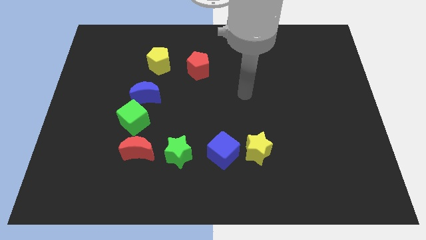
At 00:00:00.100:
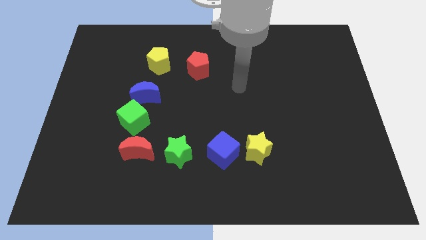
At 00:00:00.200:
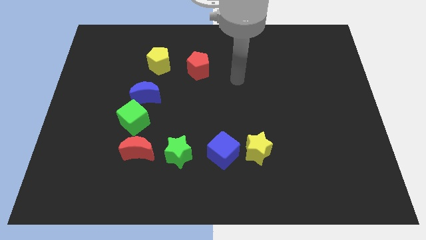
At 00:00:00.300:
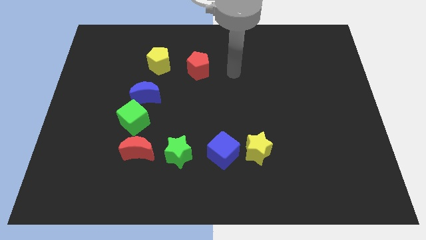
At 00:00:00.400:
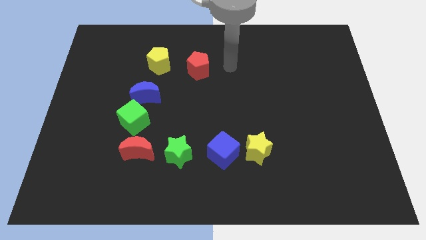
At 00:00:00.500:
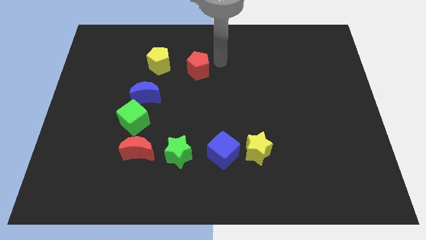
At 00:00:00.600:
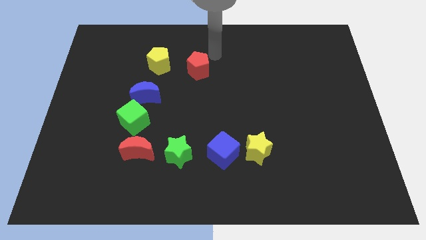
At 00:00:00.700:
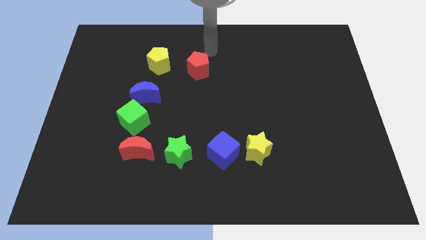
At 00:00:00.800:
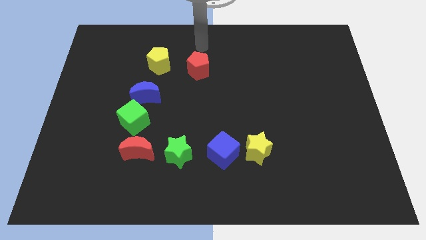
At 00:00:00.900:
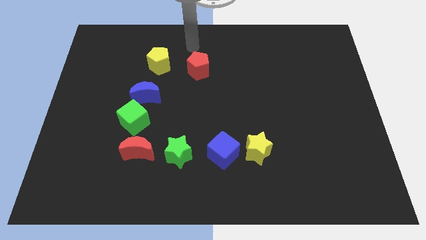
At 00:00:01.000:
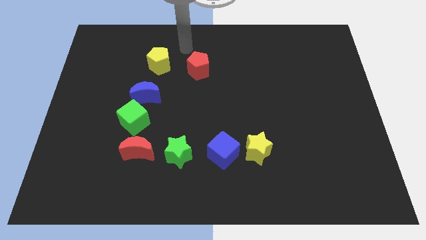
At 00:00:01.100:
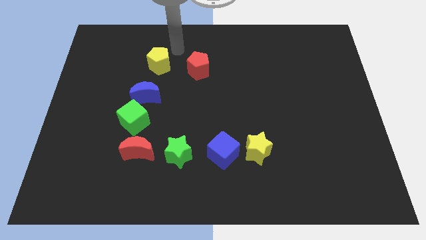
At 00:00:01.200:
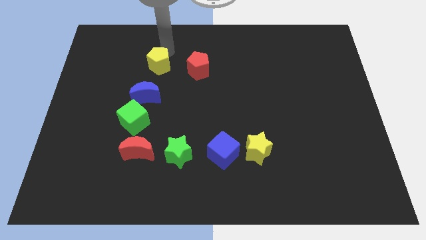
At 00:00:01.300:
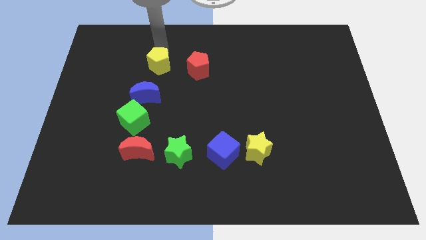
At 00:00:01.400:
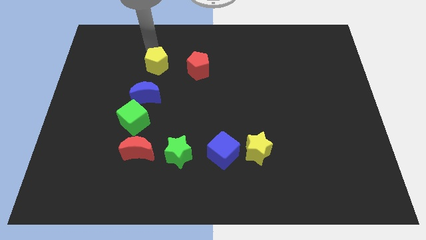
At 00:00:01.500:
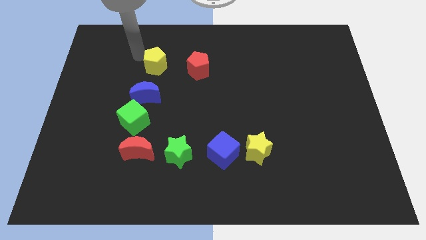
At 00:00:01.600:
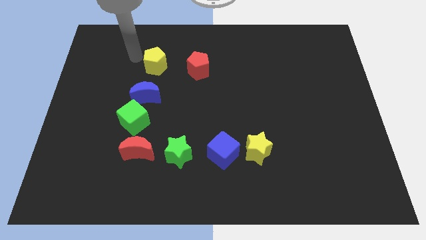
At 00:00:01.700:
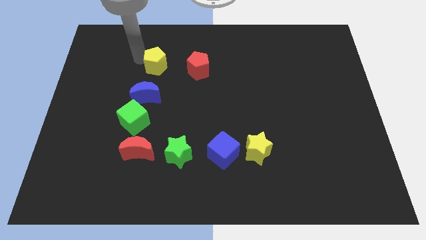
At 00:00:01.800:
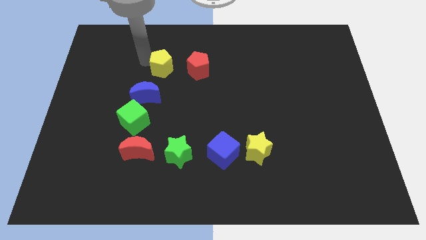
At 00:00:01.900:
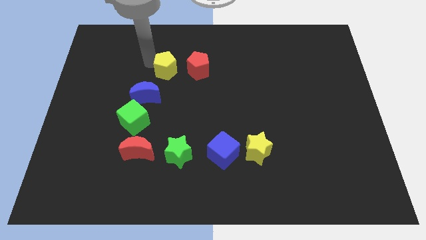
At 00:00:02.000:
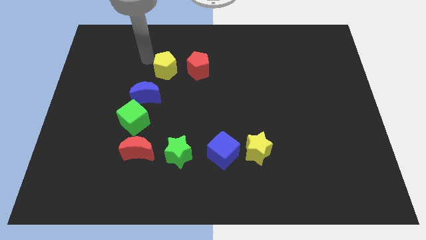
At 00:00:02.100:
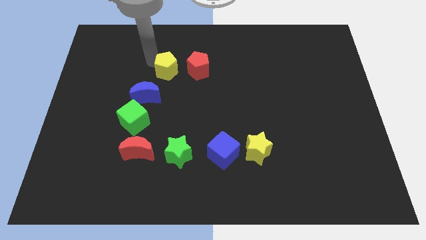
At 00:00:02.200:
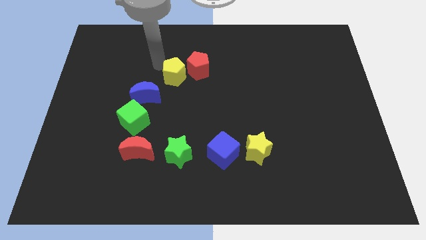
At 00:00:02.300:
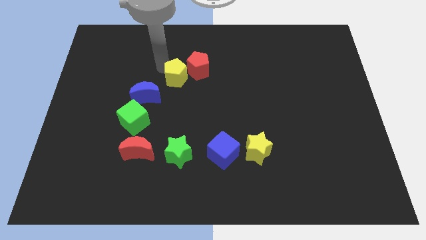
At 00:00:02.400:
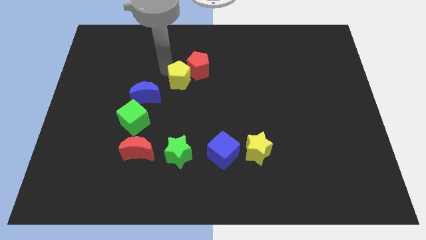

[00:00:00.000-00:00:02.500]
slide the yellow pentagon a bit down and right diagonally

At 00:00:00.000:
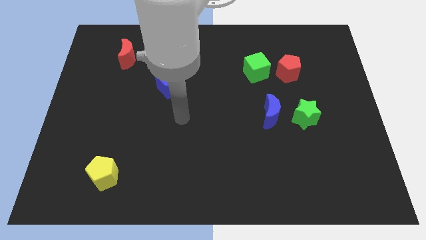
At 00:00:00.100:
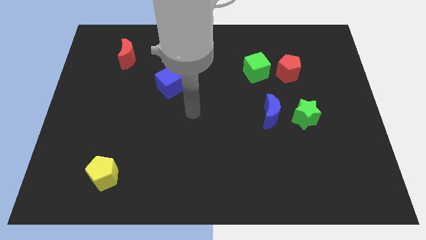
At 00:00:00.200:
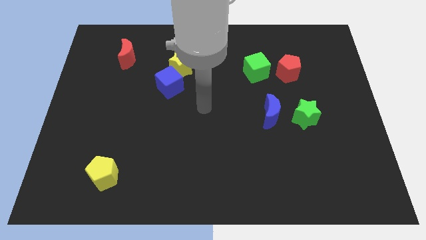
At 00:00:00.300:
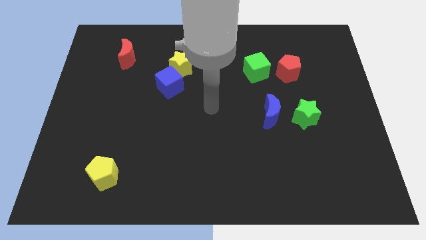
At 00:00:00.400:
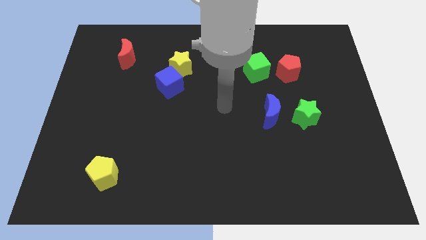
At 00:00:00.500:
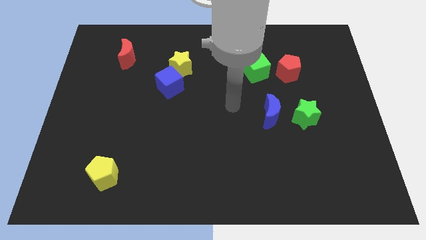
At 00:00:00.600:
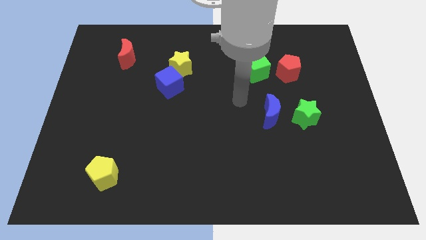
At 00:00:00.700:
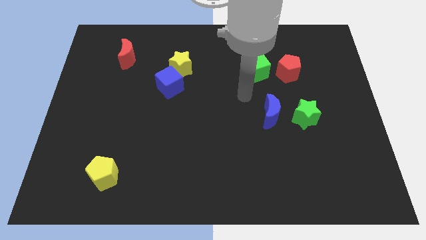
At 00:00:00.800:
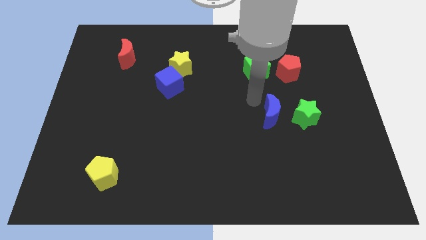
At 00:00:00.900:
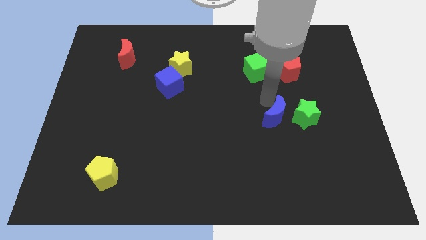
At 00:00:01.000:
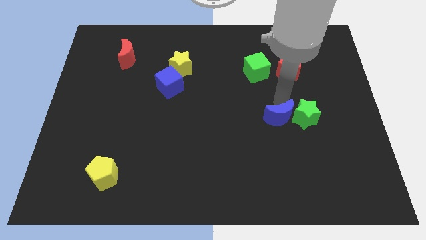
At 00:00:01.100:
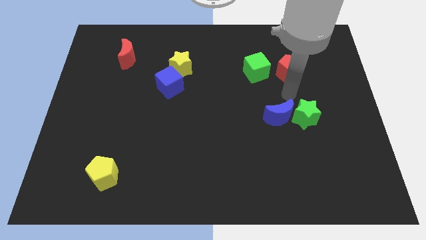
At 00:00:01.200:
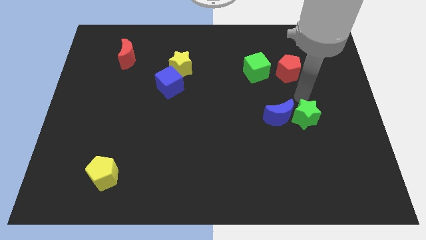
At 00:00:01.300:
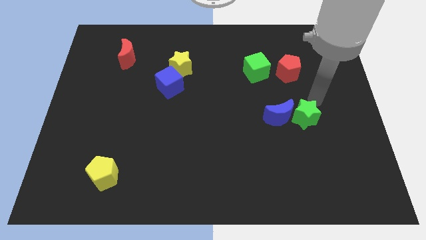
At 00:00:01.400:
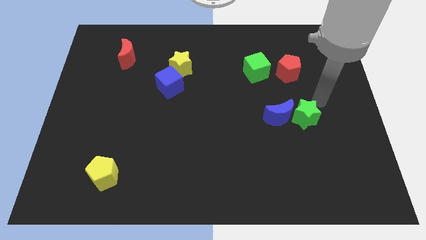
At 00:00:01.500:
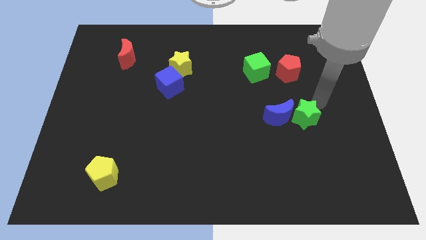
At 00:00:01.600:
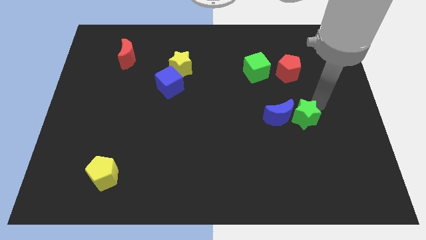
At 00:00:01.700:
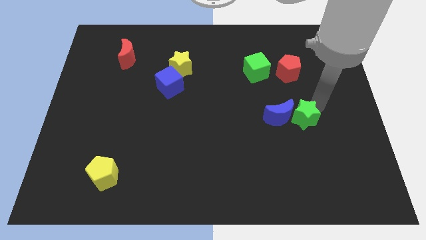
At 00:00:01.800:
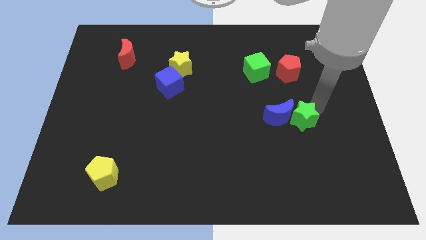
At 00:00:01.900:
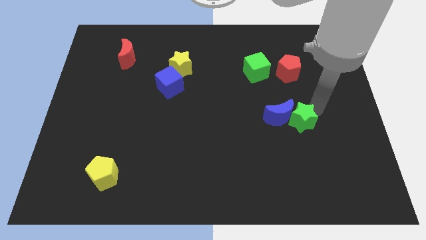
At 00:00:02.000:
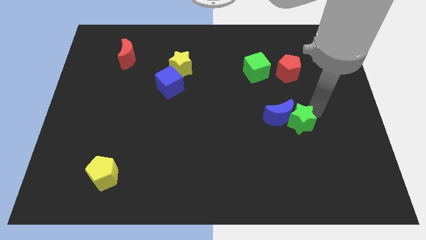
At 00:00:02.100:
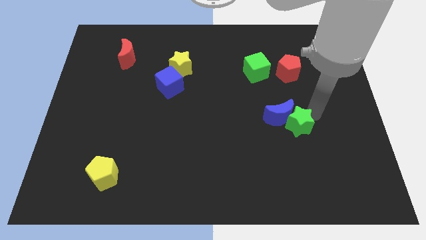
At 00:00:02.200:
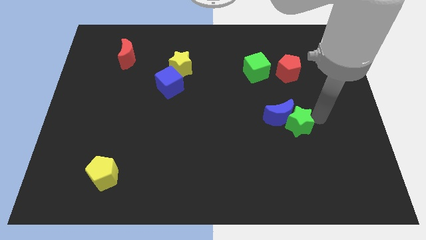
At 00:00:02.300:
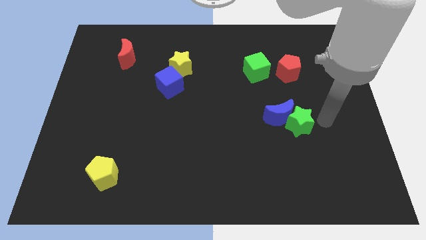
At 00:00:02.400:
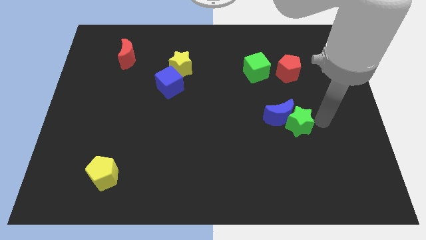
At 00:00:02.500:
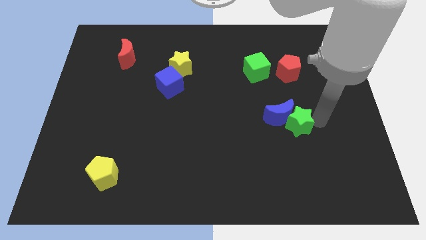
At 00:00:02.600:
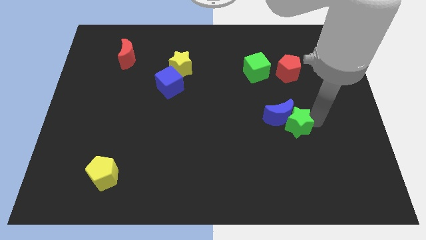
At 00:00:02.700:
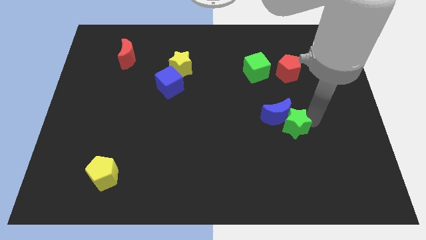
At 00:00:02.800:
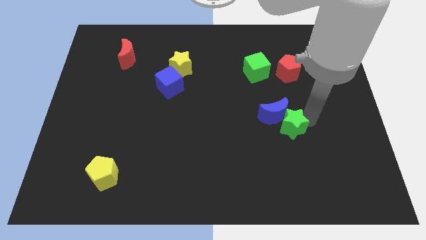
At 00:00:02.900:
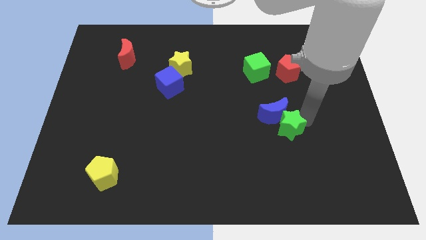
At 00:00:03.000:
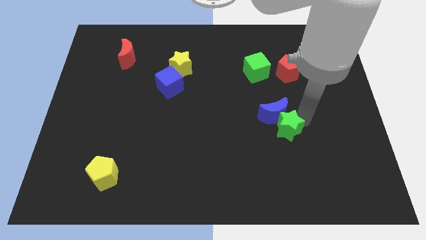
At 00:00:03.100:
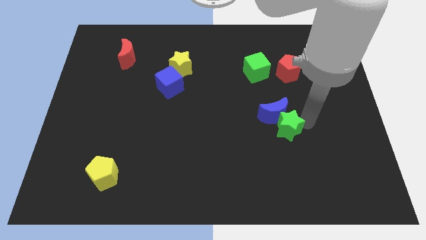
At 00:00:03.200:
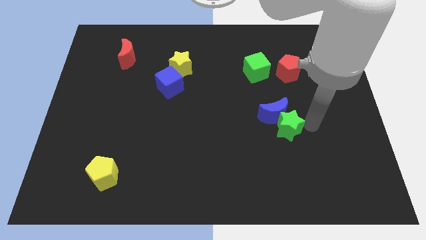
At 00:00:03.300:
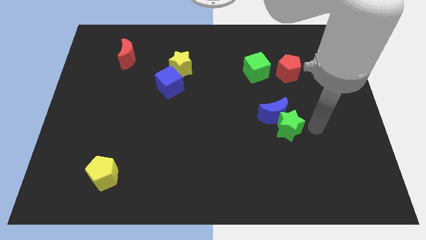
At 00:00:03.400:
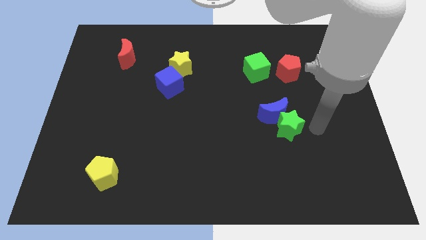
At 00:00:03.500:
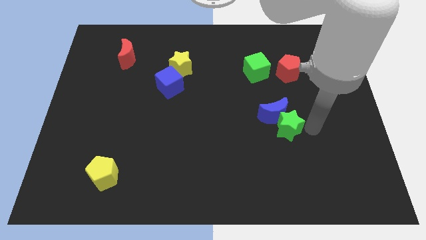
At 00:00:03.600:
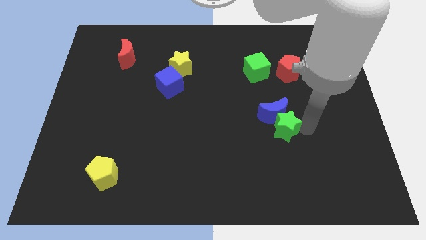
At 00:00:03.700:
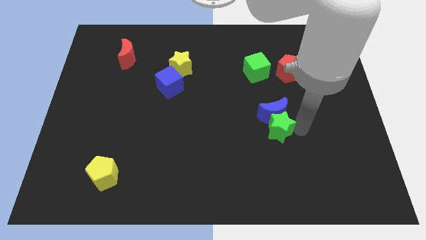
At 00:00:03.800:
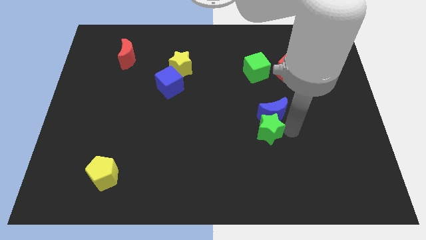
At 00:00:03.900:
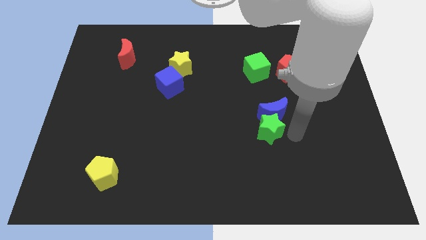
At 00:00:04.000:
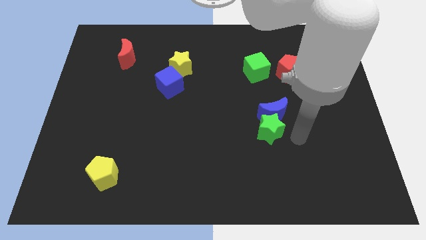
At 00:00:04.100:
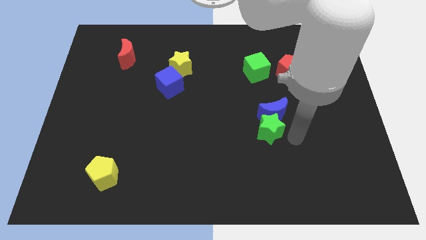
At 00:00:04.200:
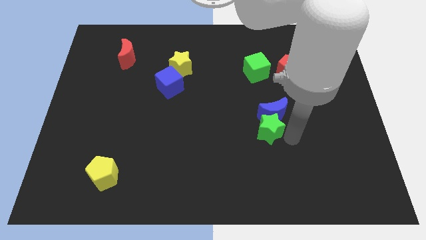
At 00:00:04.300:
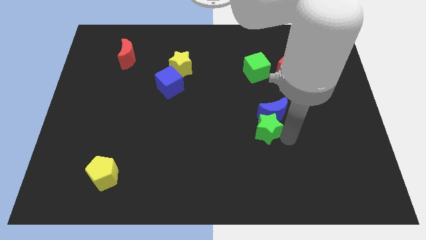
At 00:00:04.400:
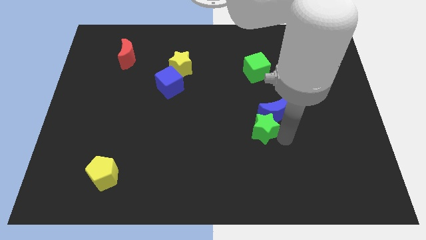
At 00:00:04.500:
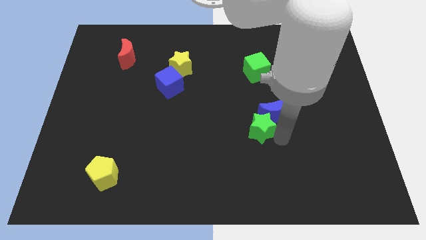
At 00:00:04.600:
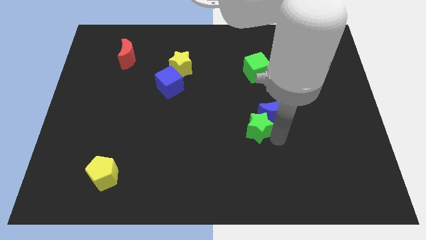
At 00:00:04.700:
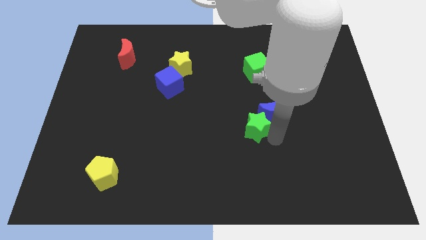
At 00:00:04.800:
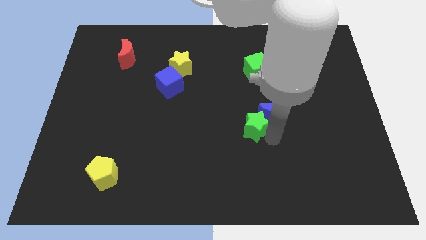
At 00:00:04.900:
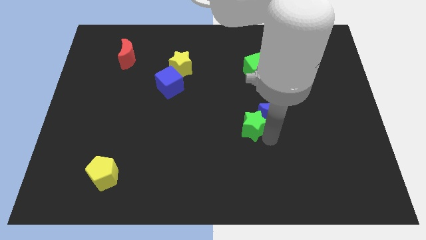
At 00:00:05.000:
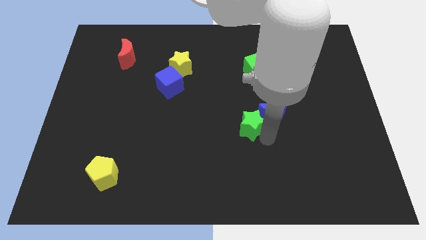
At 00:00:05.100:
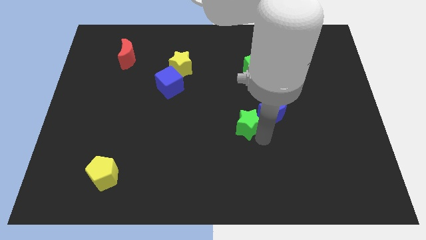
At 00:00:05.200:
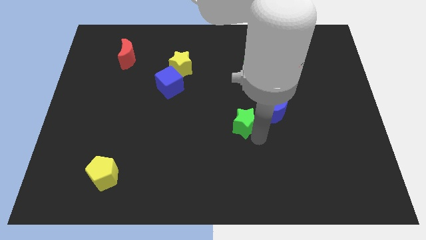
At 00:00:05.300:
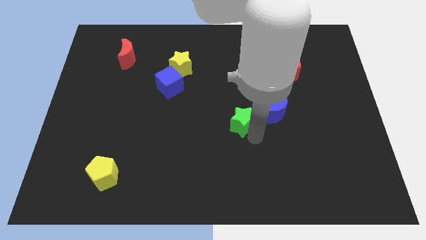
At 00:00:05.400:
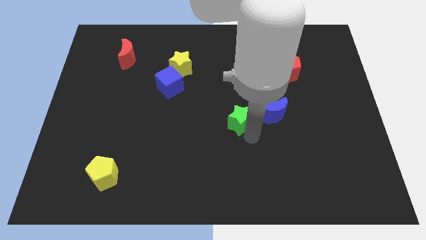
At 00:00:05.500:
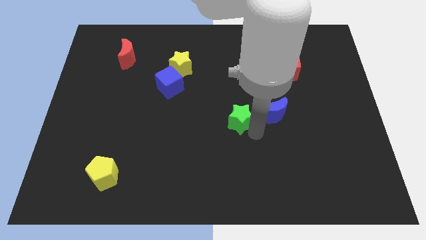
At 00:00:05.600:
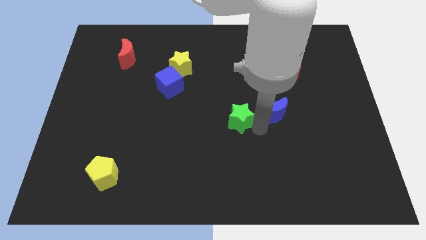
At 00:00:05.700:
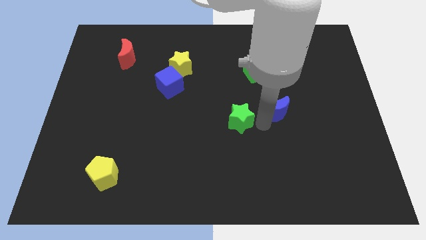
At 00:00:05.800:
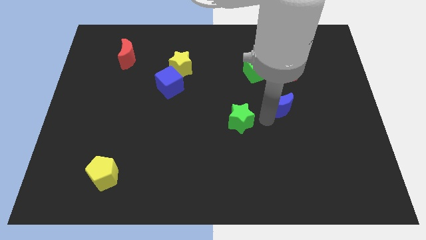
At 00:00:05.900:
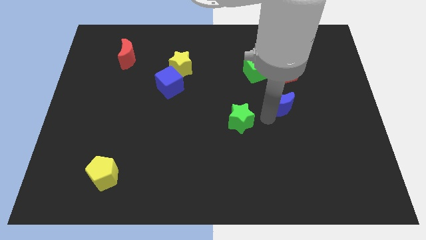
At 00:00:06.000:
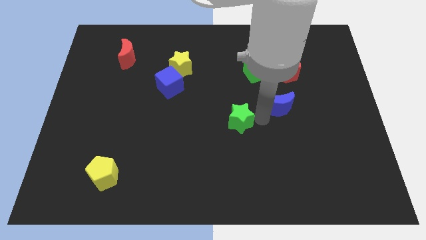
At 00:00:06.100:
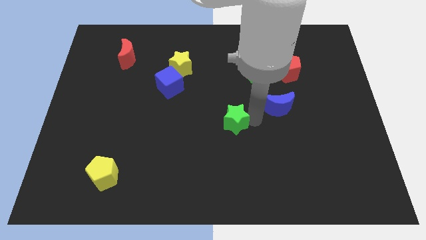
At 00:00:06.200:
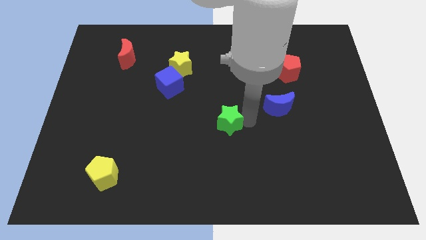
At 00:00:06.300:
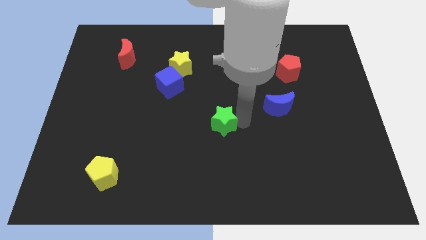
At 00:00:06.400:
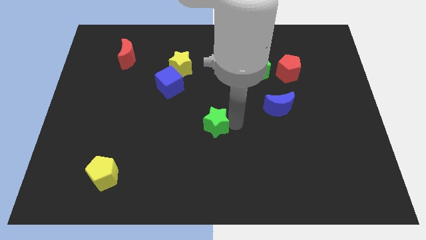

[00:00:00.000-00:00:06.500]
slide the green star left
